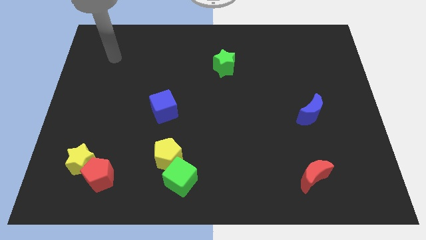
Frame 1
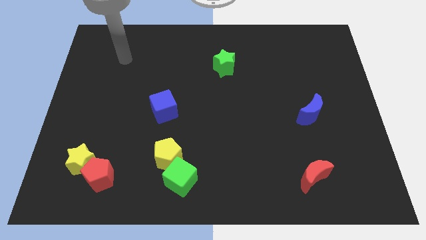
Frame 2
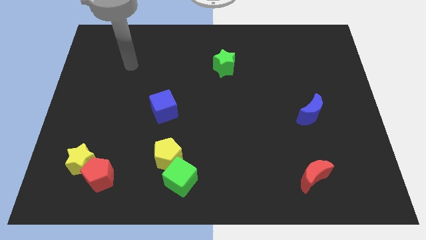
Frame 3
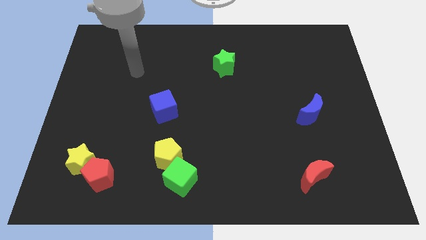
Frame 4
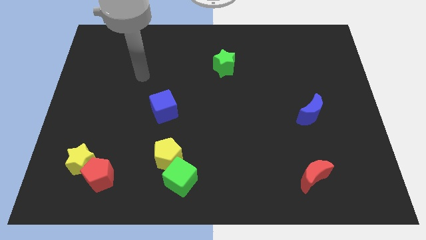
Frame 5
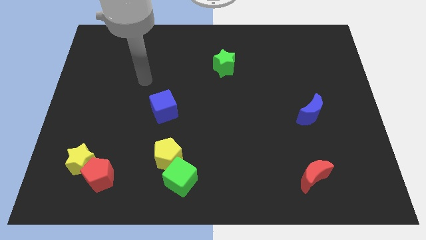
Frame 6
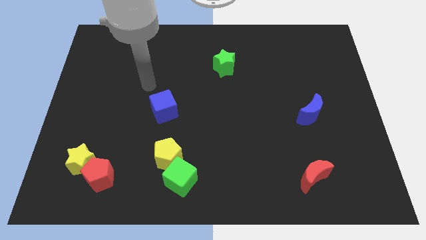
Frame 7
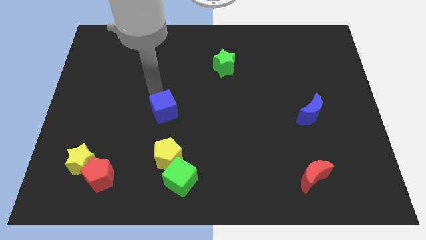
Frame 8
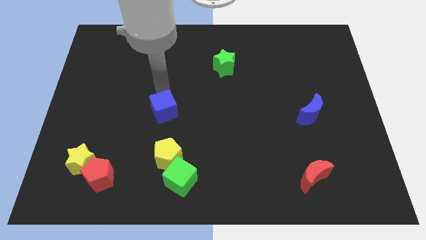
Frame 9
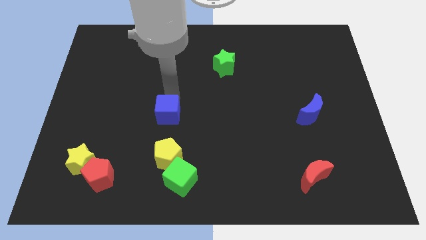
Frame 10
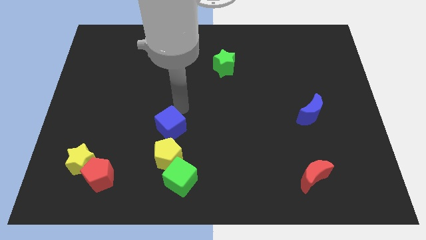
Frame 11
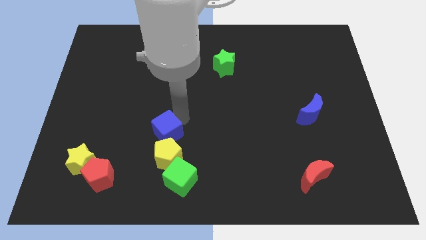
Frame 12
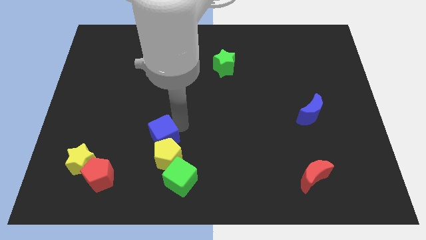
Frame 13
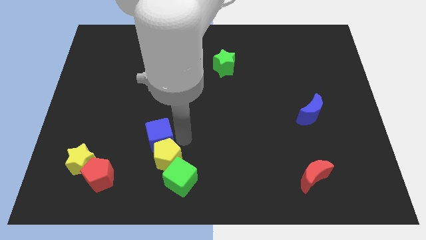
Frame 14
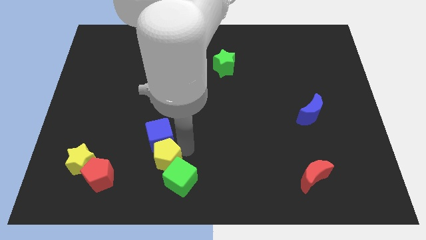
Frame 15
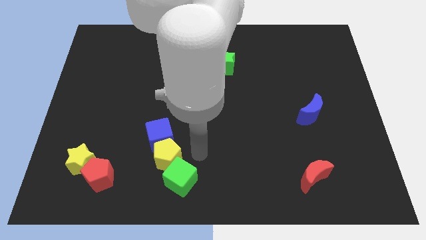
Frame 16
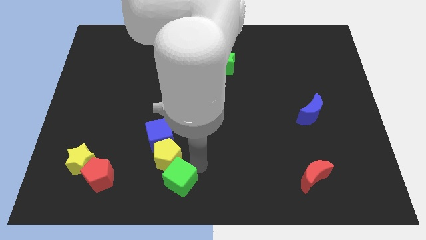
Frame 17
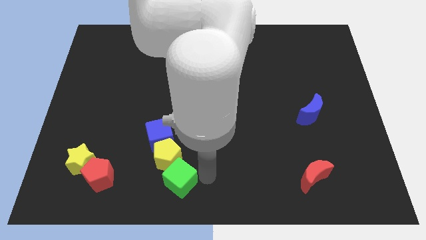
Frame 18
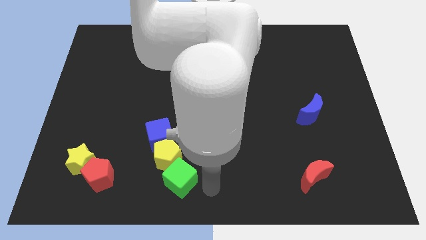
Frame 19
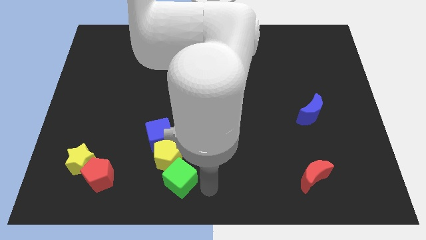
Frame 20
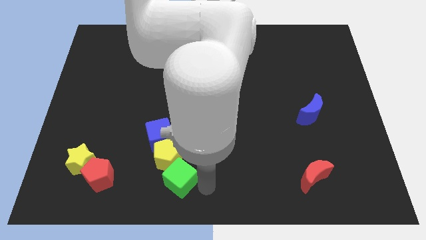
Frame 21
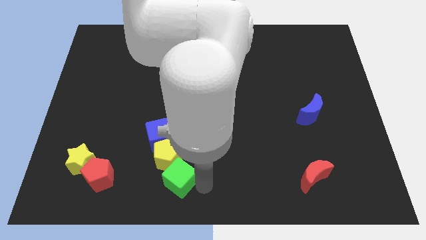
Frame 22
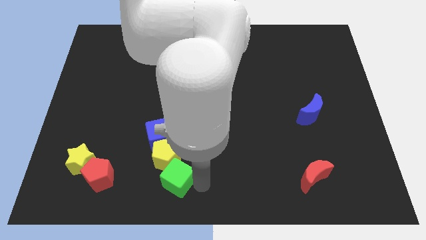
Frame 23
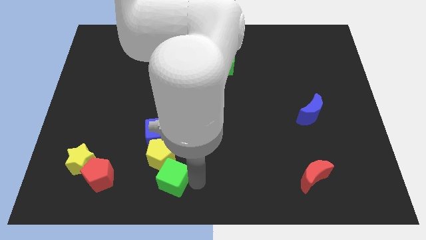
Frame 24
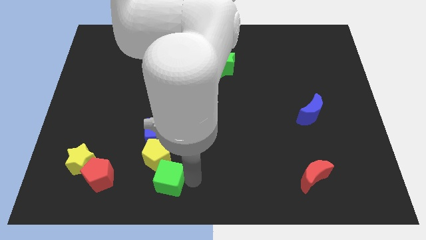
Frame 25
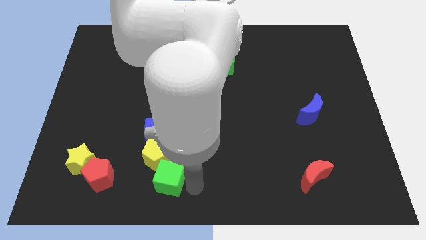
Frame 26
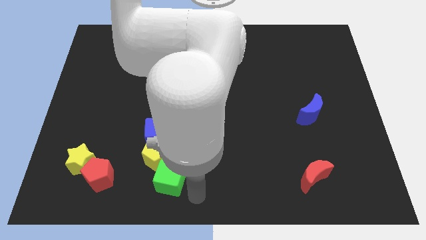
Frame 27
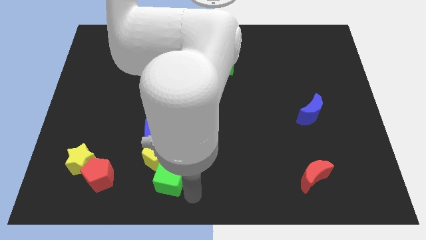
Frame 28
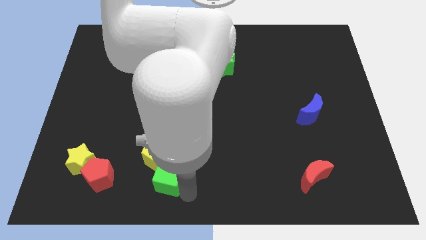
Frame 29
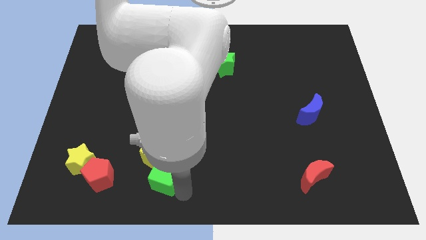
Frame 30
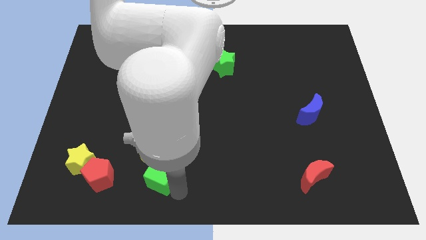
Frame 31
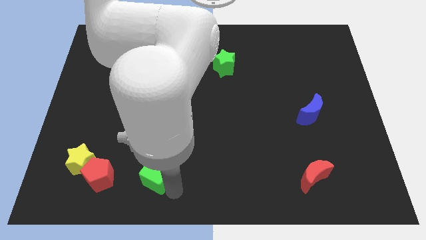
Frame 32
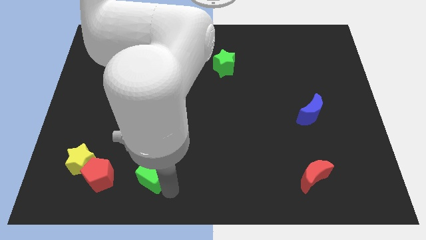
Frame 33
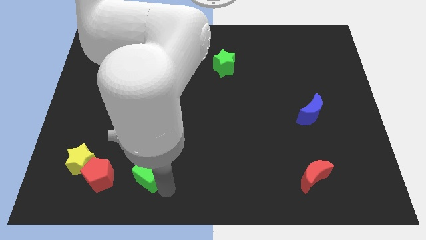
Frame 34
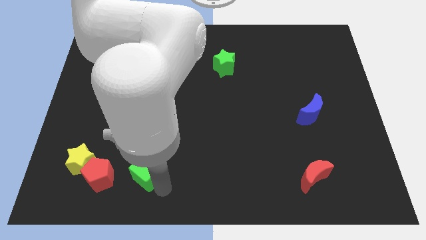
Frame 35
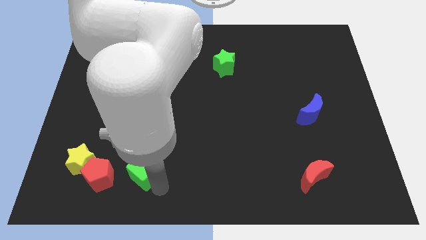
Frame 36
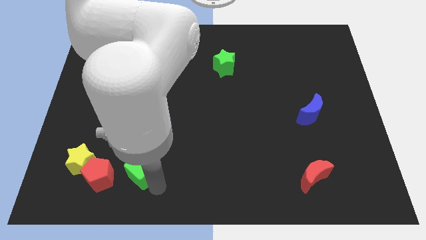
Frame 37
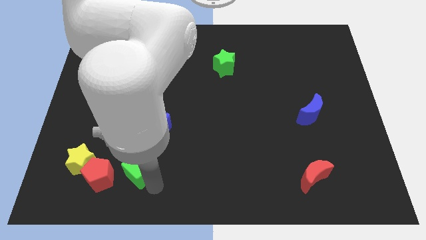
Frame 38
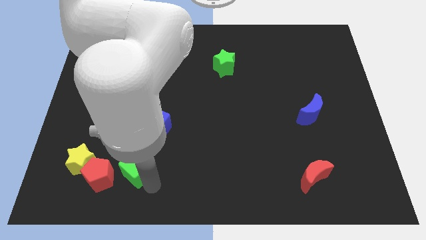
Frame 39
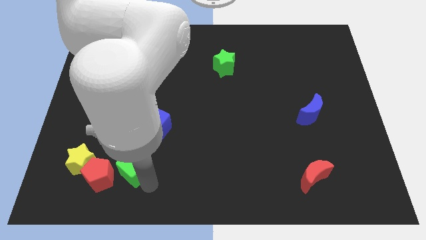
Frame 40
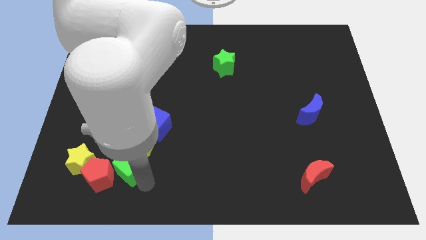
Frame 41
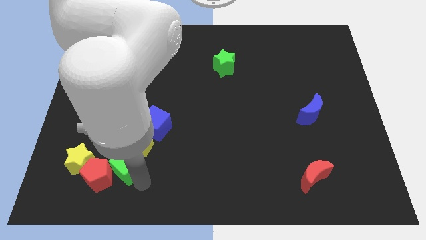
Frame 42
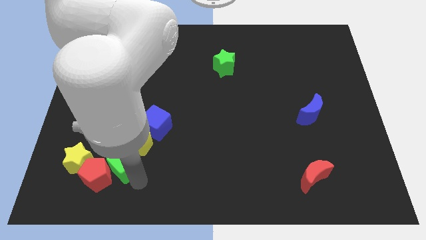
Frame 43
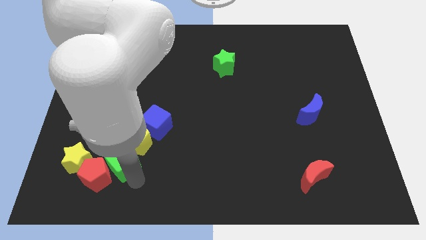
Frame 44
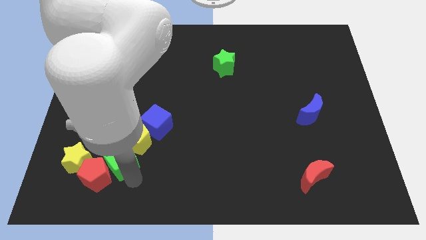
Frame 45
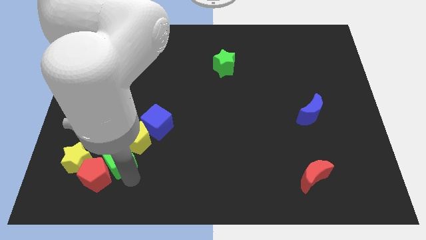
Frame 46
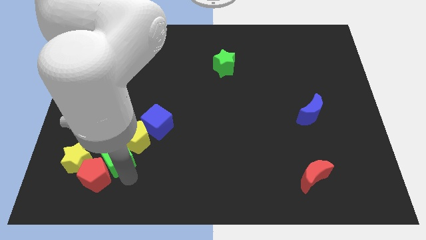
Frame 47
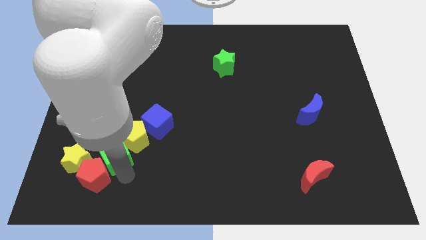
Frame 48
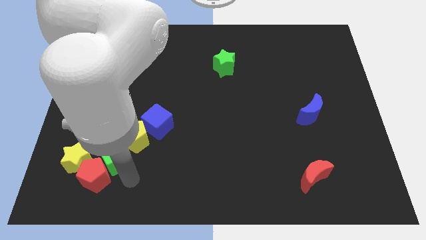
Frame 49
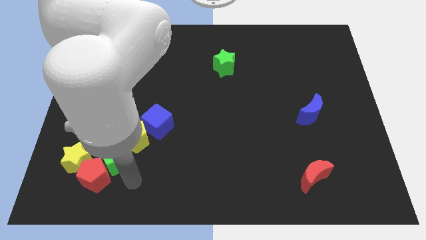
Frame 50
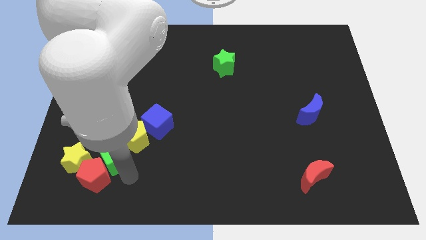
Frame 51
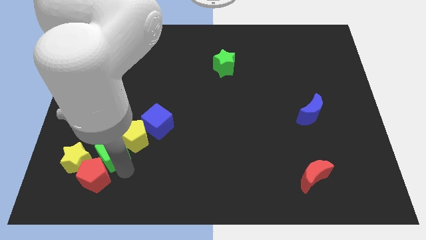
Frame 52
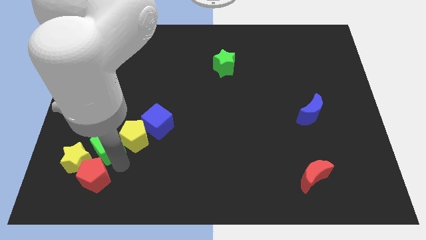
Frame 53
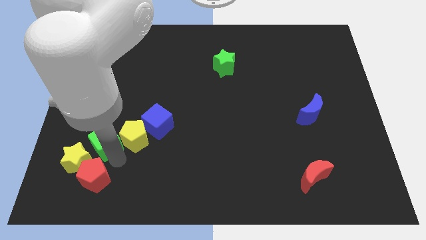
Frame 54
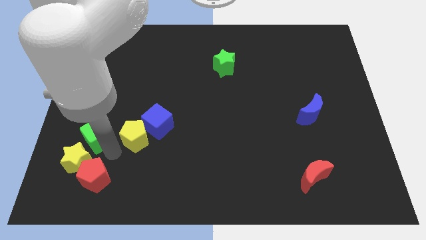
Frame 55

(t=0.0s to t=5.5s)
slide the green cube to the top side of the yellow star
